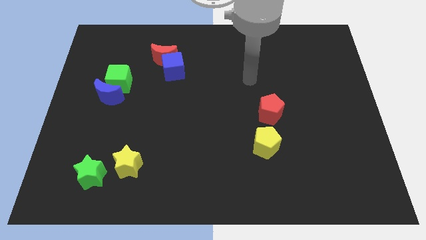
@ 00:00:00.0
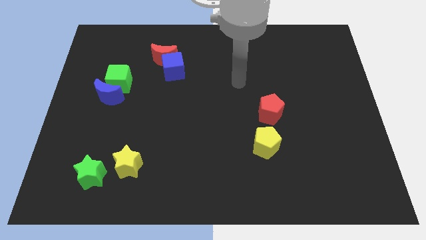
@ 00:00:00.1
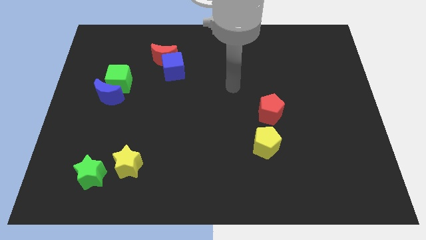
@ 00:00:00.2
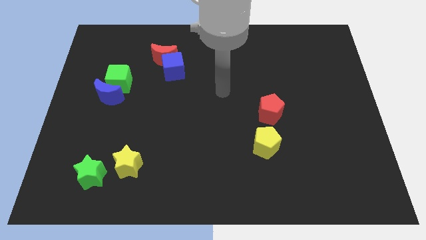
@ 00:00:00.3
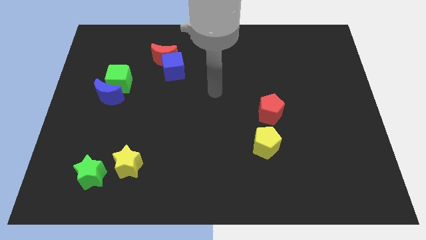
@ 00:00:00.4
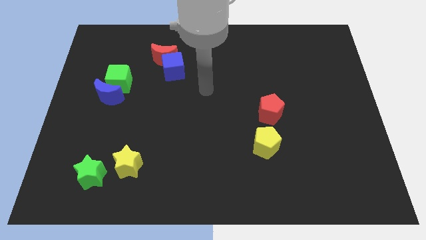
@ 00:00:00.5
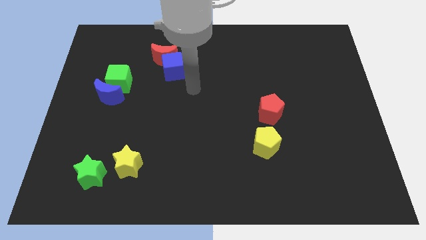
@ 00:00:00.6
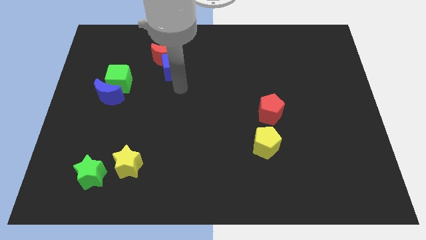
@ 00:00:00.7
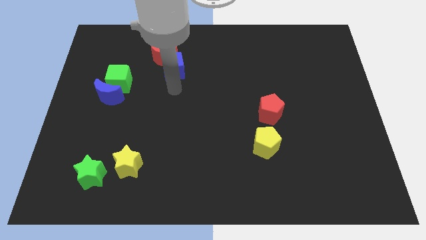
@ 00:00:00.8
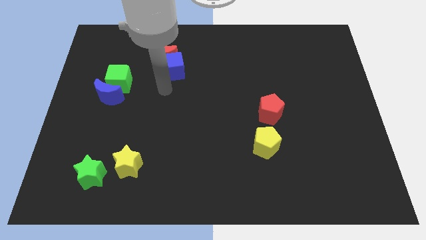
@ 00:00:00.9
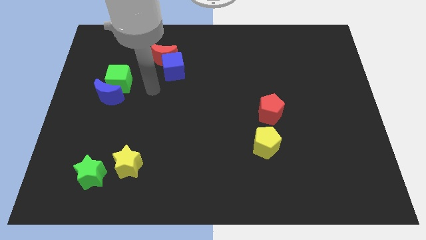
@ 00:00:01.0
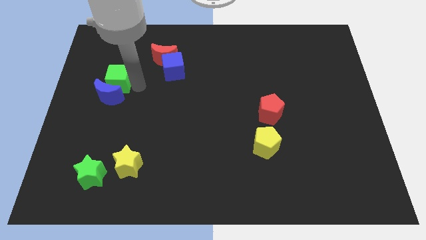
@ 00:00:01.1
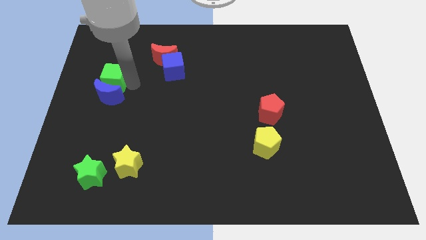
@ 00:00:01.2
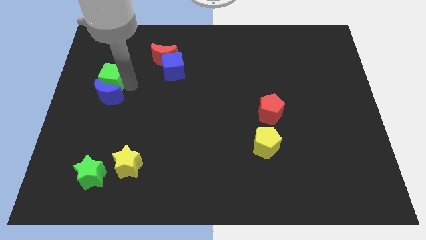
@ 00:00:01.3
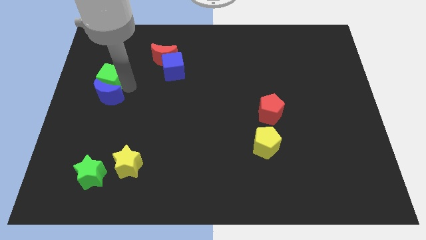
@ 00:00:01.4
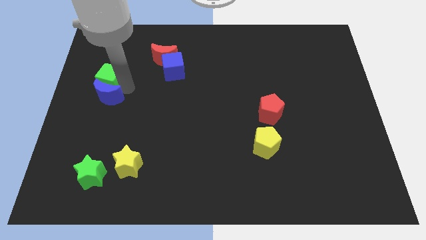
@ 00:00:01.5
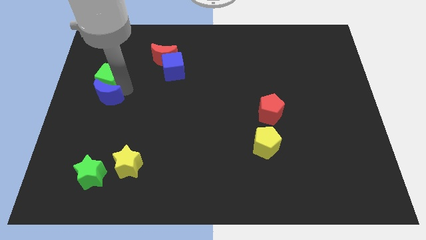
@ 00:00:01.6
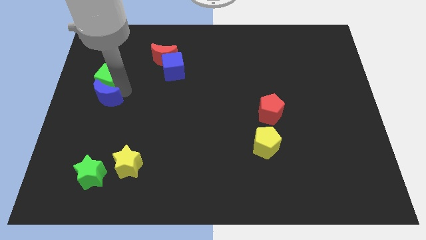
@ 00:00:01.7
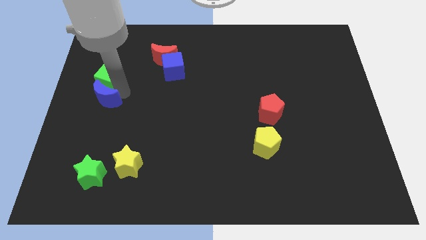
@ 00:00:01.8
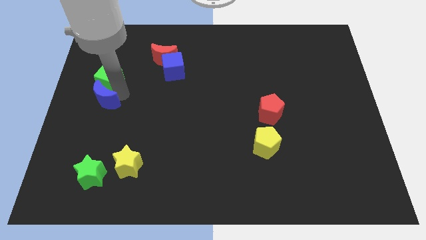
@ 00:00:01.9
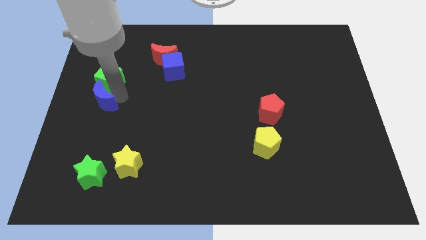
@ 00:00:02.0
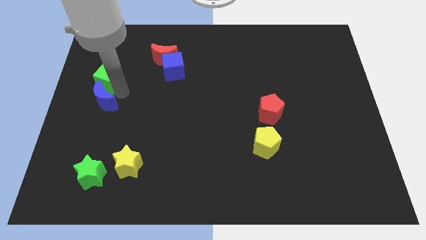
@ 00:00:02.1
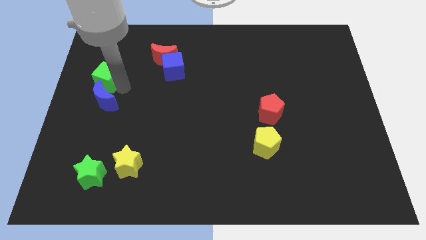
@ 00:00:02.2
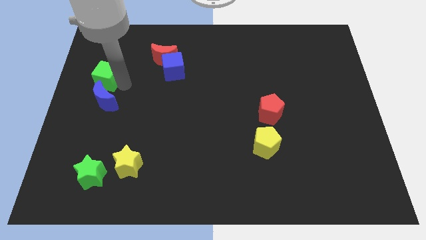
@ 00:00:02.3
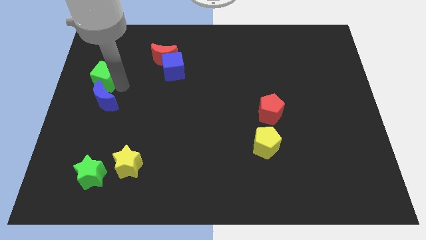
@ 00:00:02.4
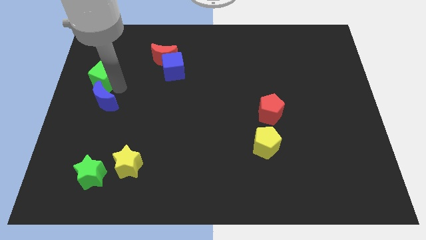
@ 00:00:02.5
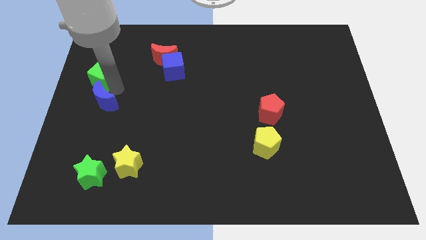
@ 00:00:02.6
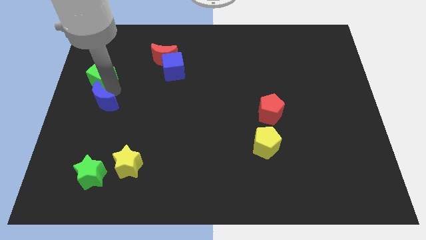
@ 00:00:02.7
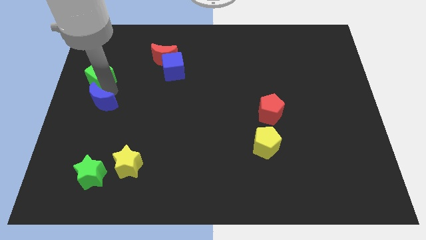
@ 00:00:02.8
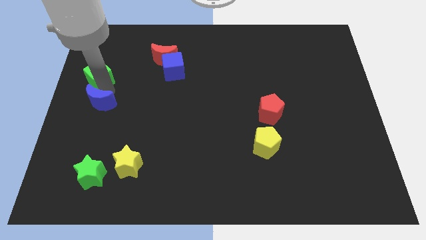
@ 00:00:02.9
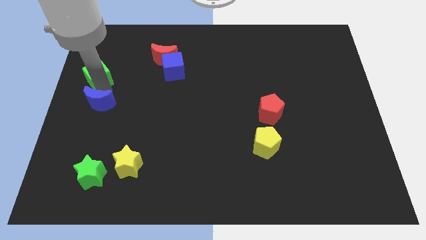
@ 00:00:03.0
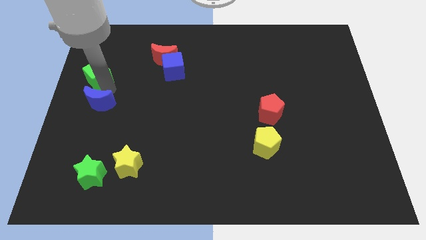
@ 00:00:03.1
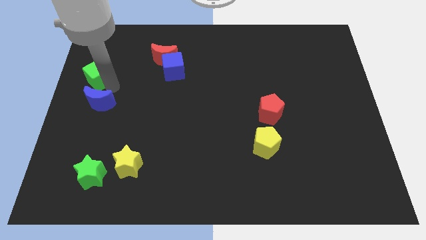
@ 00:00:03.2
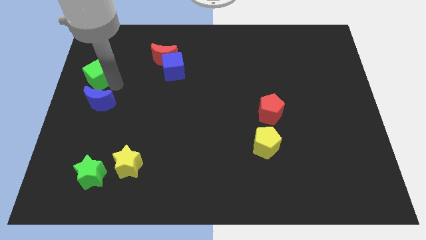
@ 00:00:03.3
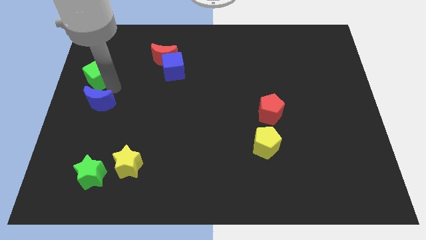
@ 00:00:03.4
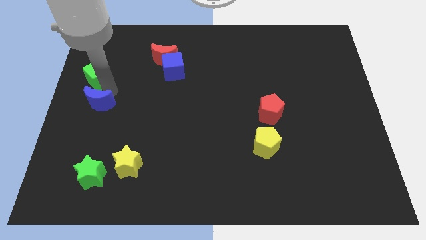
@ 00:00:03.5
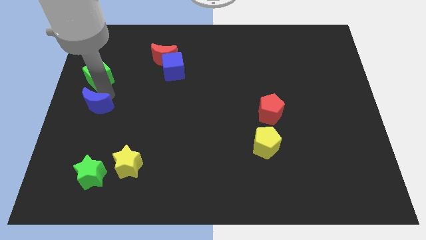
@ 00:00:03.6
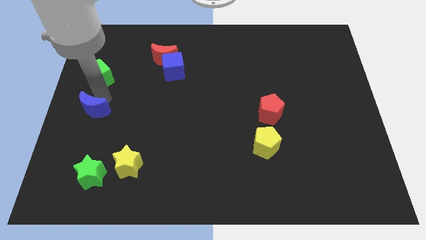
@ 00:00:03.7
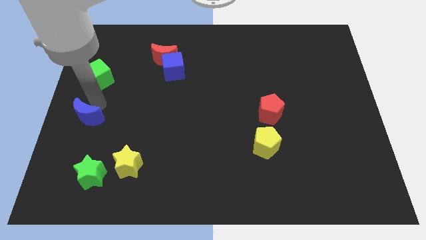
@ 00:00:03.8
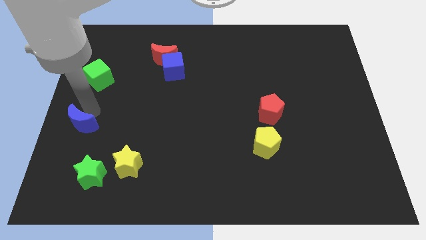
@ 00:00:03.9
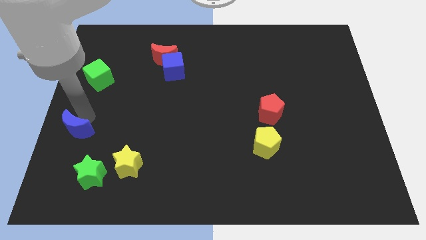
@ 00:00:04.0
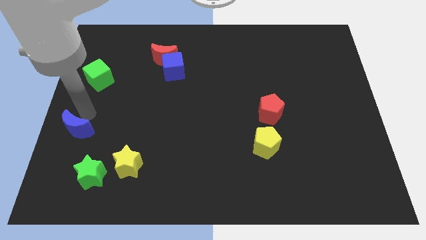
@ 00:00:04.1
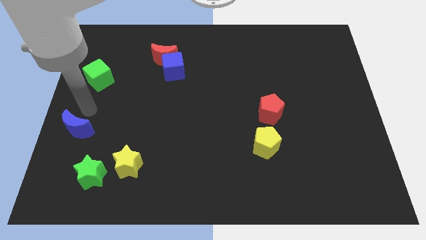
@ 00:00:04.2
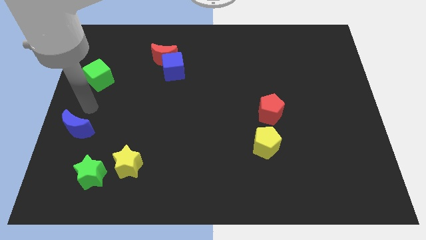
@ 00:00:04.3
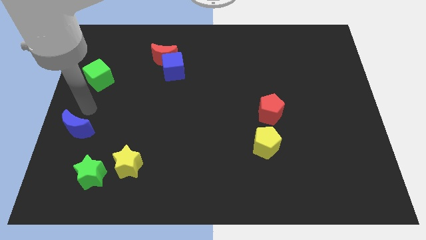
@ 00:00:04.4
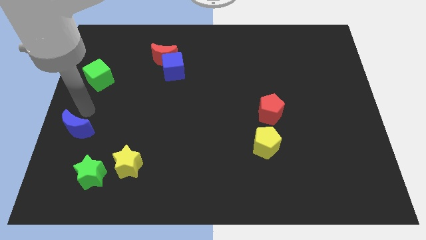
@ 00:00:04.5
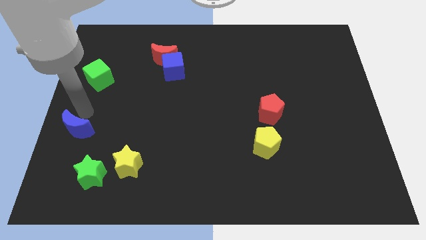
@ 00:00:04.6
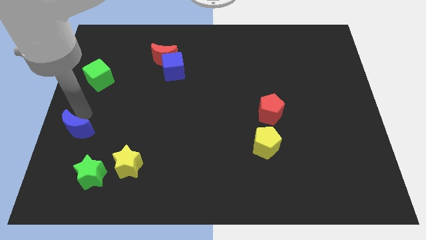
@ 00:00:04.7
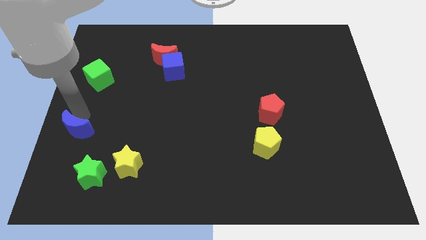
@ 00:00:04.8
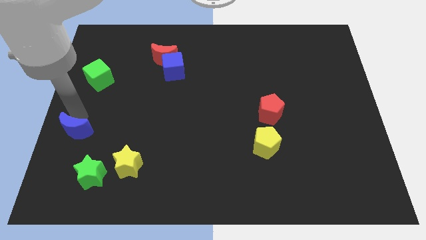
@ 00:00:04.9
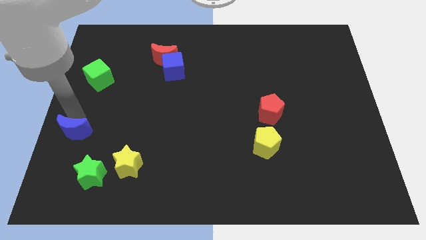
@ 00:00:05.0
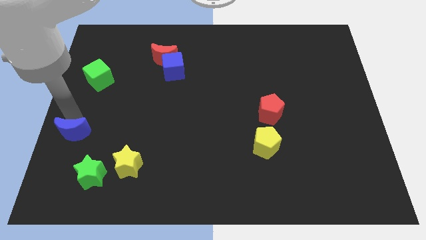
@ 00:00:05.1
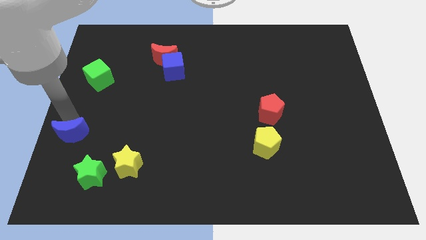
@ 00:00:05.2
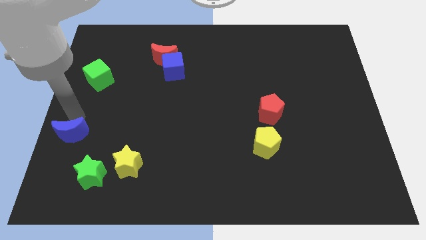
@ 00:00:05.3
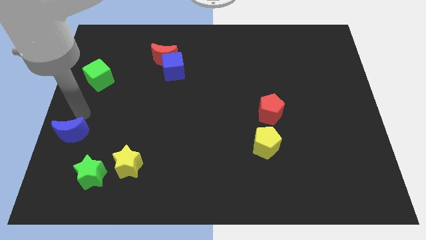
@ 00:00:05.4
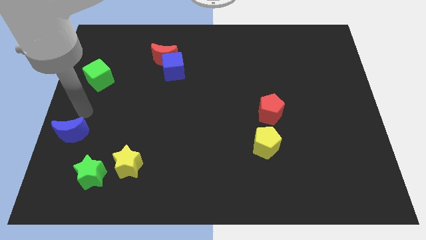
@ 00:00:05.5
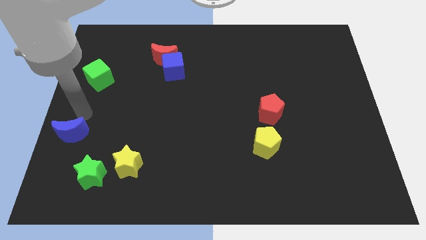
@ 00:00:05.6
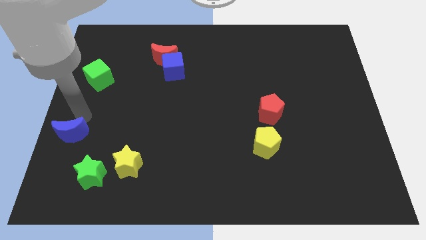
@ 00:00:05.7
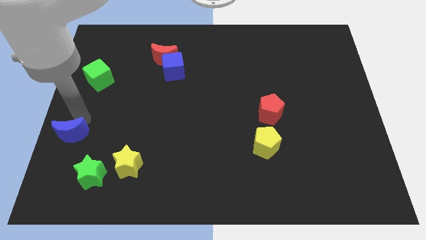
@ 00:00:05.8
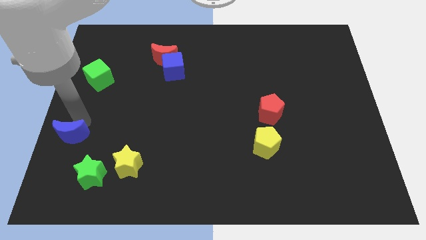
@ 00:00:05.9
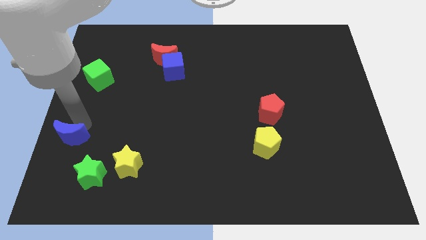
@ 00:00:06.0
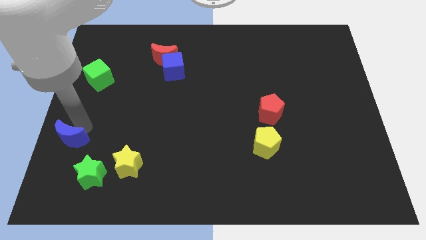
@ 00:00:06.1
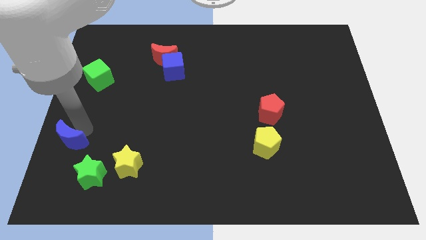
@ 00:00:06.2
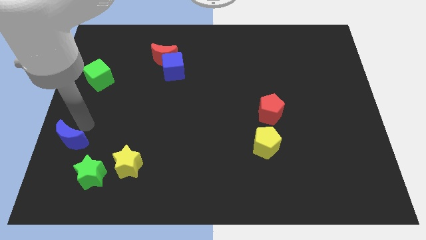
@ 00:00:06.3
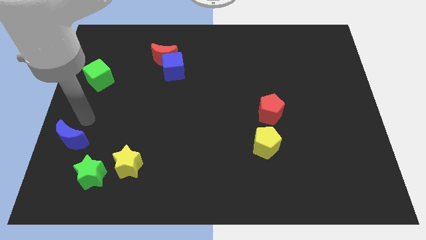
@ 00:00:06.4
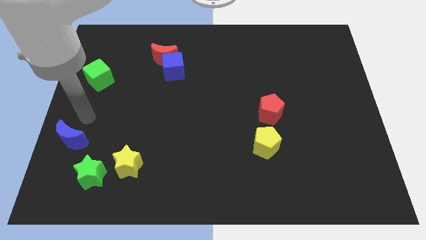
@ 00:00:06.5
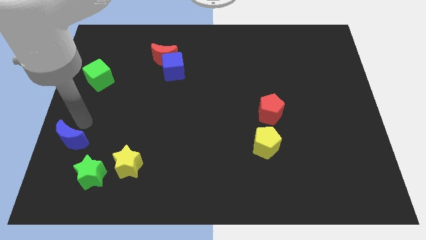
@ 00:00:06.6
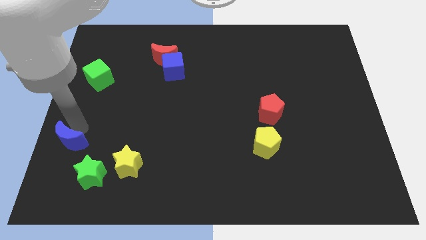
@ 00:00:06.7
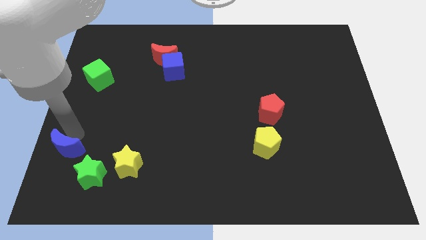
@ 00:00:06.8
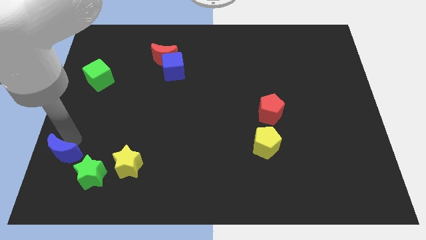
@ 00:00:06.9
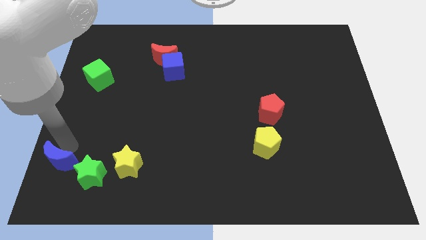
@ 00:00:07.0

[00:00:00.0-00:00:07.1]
put the blue moon to the bottom left of the board
